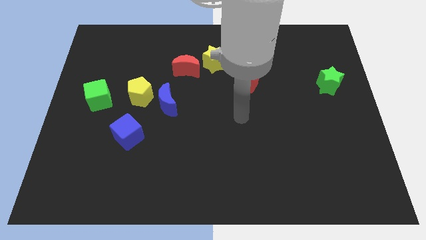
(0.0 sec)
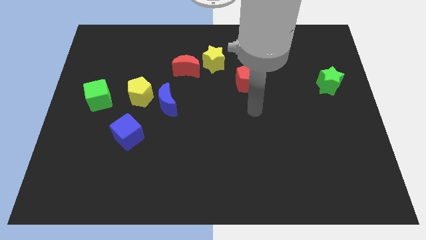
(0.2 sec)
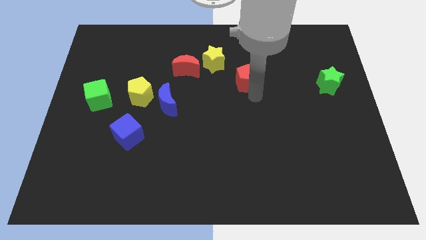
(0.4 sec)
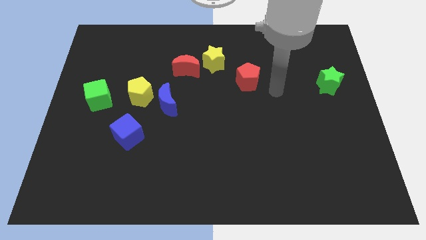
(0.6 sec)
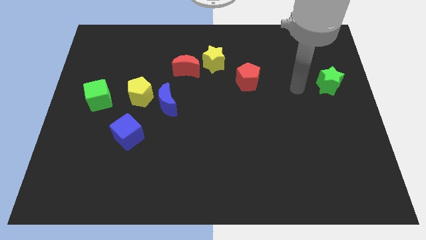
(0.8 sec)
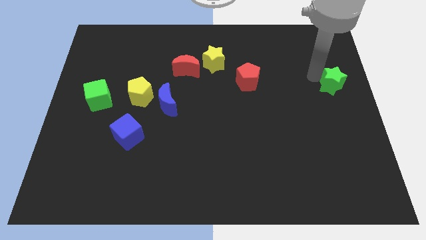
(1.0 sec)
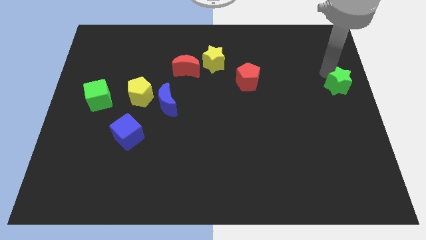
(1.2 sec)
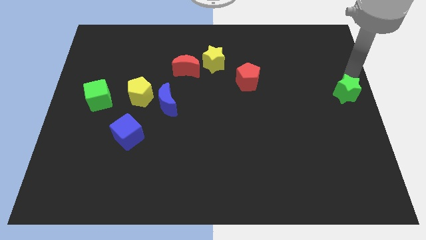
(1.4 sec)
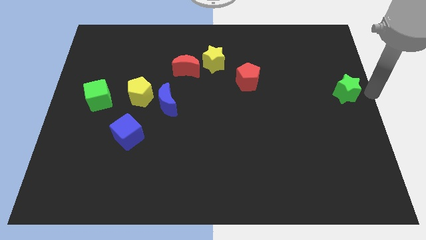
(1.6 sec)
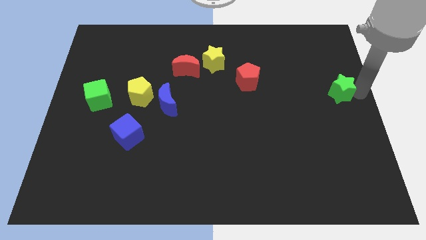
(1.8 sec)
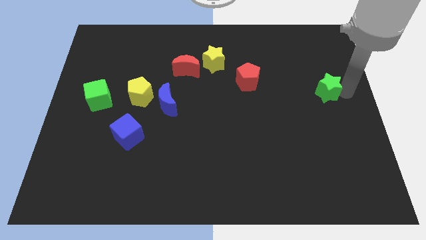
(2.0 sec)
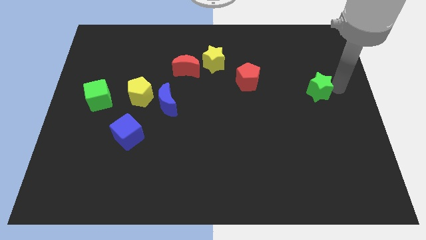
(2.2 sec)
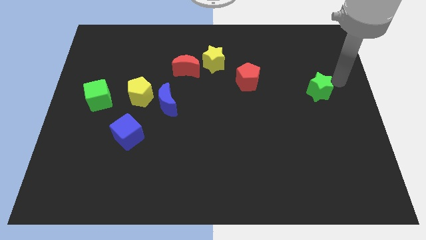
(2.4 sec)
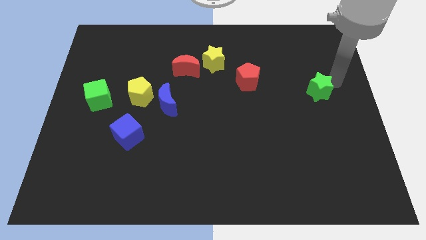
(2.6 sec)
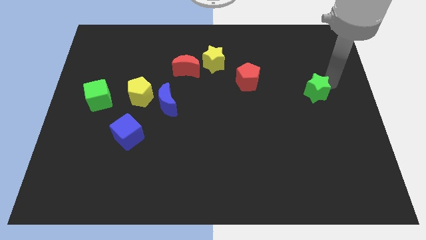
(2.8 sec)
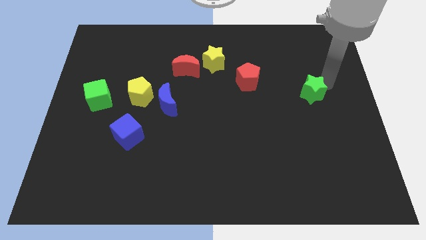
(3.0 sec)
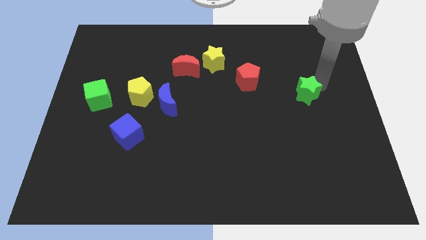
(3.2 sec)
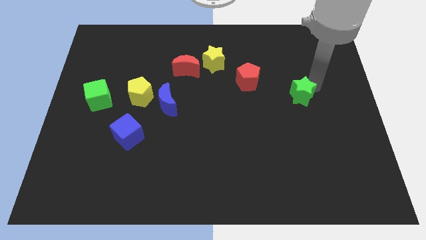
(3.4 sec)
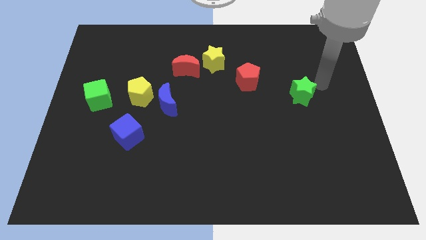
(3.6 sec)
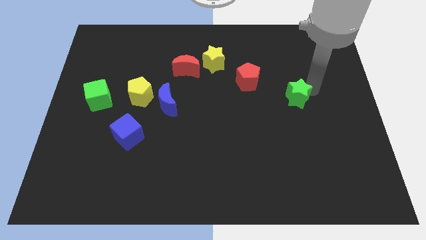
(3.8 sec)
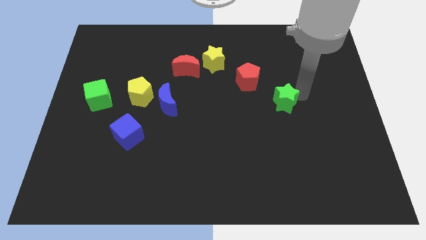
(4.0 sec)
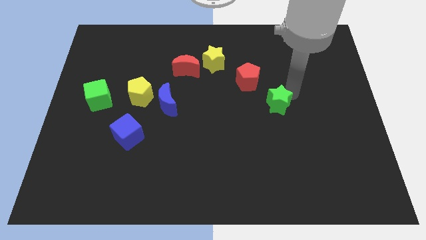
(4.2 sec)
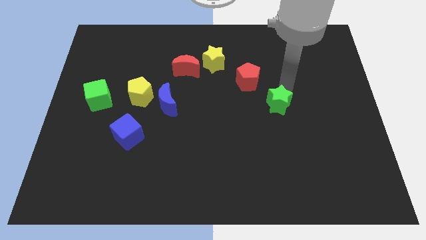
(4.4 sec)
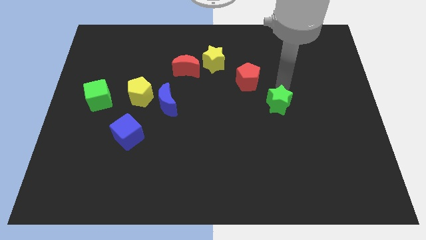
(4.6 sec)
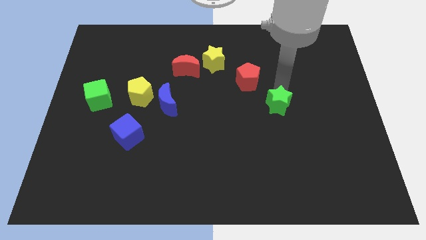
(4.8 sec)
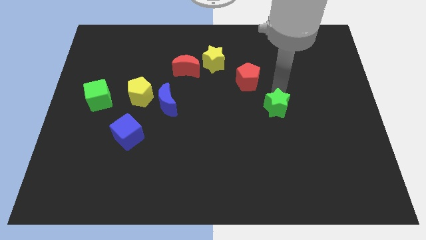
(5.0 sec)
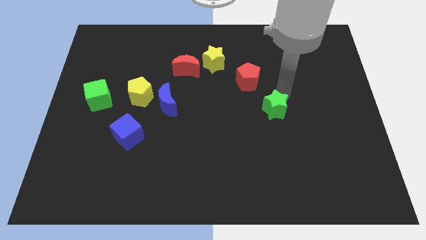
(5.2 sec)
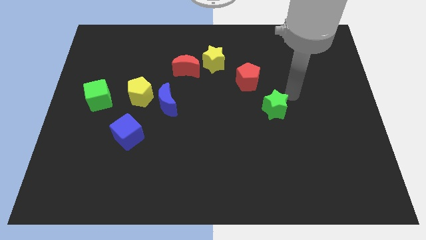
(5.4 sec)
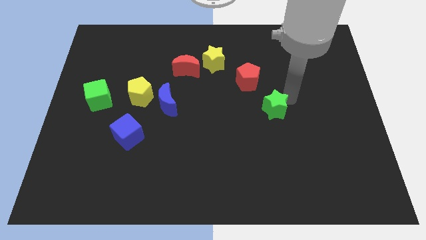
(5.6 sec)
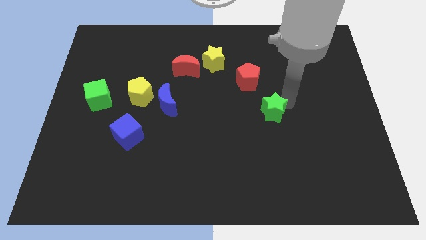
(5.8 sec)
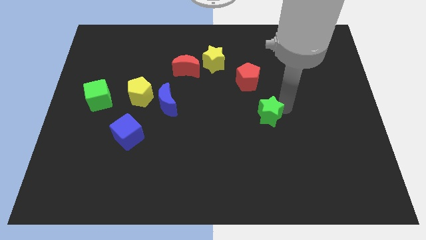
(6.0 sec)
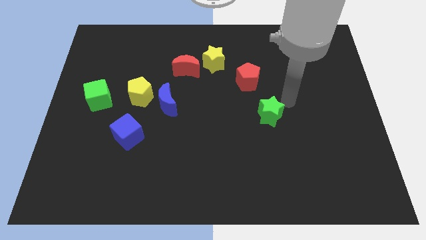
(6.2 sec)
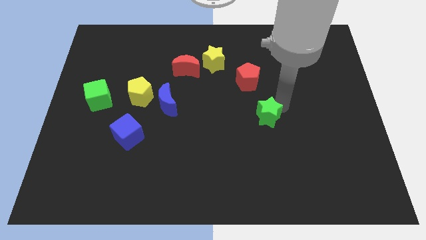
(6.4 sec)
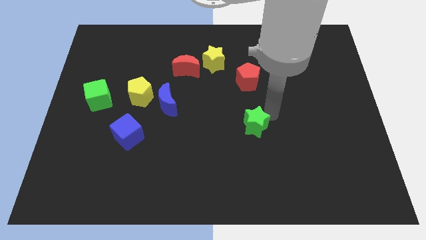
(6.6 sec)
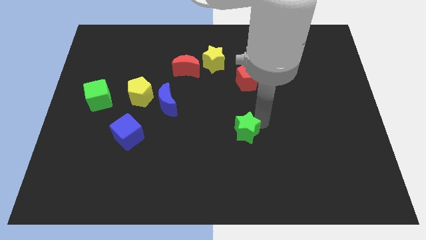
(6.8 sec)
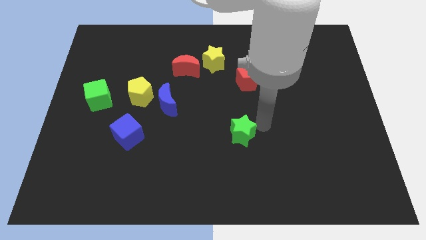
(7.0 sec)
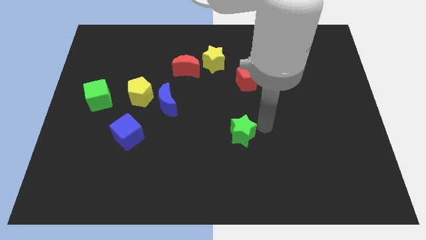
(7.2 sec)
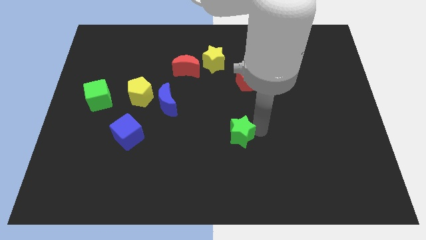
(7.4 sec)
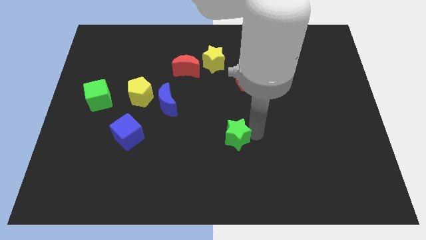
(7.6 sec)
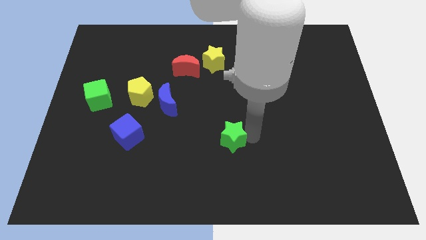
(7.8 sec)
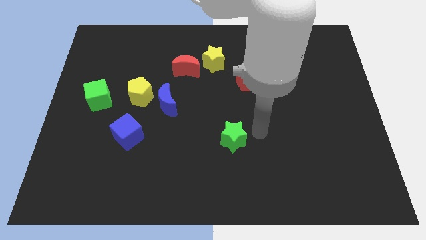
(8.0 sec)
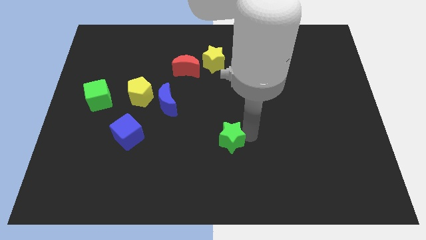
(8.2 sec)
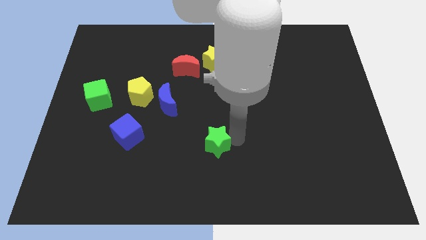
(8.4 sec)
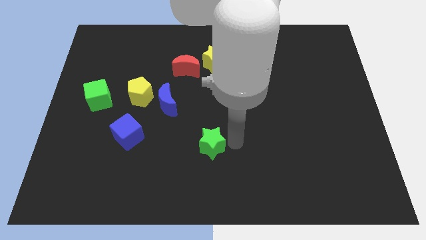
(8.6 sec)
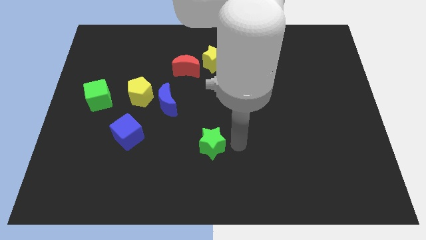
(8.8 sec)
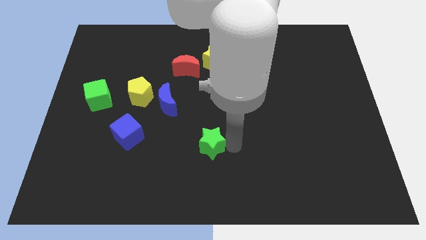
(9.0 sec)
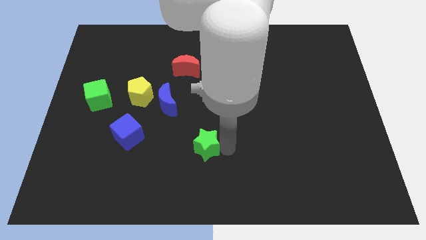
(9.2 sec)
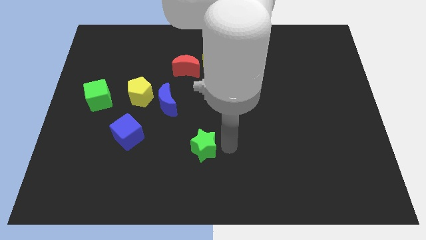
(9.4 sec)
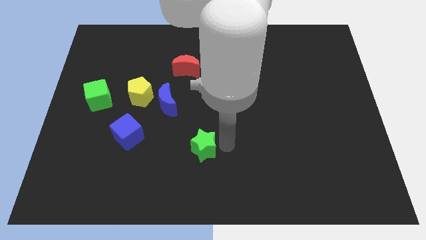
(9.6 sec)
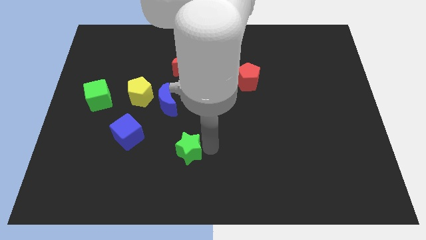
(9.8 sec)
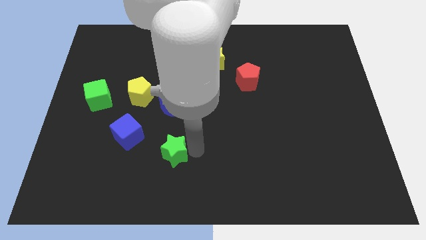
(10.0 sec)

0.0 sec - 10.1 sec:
move the green star to the bottom right side of the blue cube

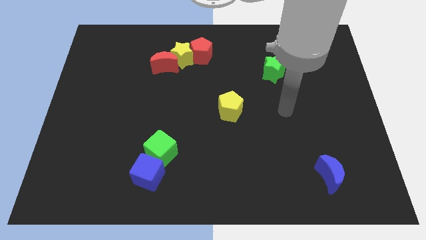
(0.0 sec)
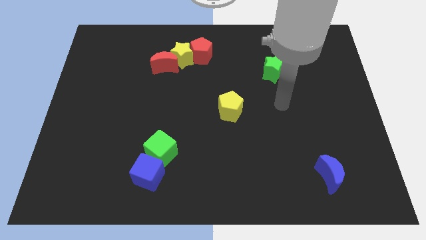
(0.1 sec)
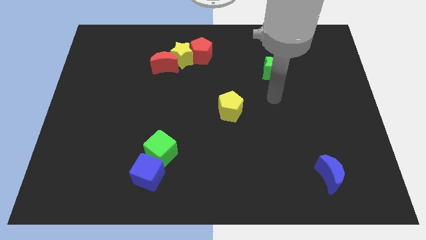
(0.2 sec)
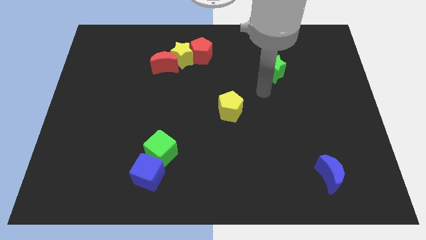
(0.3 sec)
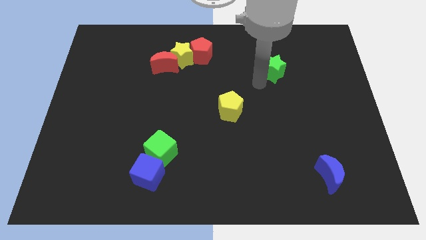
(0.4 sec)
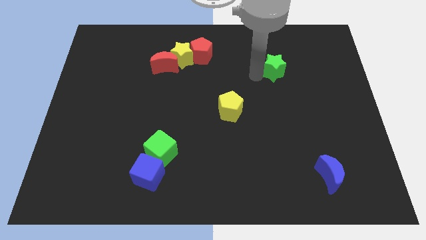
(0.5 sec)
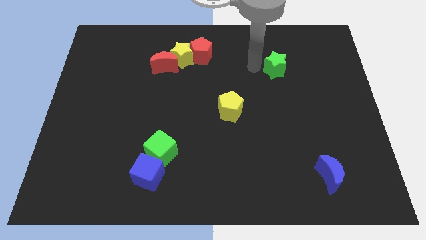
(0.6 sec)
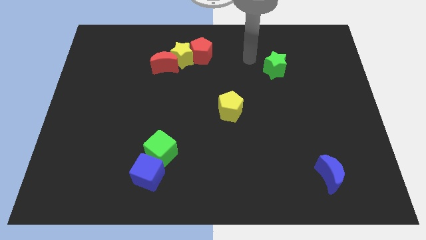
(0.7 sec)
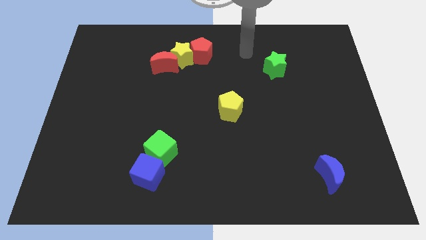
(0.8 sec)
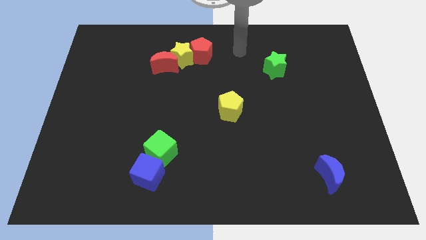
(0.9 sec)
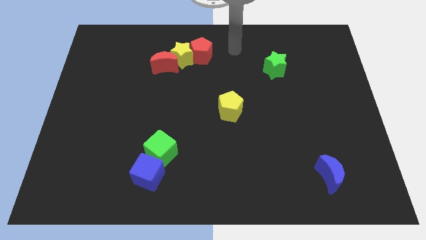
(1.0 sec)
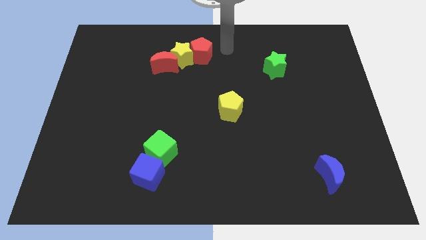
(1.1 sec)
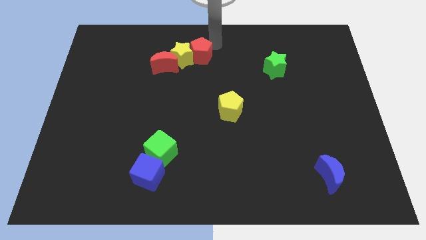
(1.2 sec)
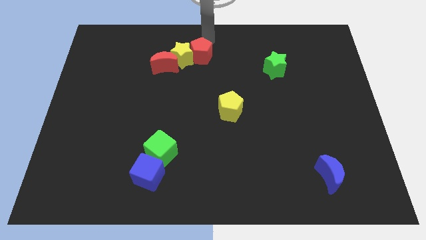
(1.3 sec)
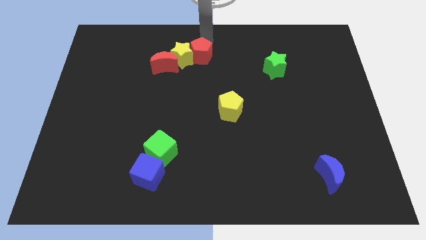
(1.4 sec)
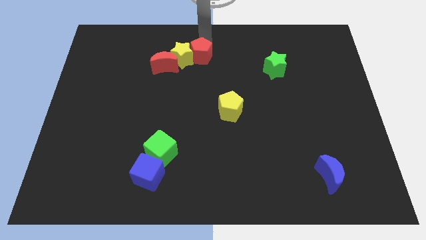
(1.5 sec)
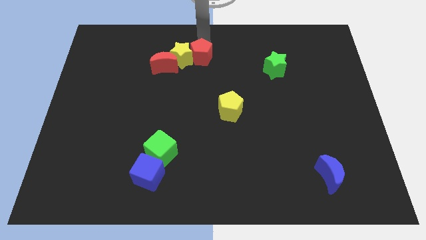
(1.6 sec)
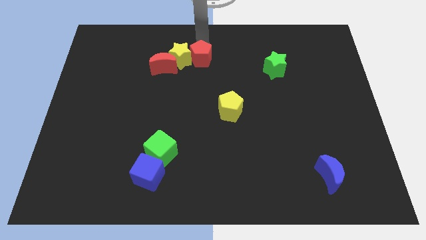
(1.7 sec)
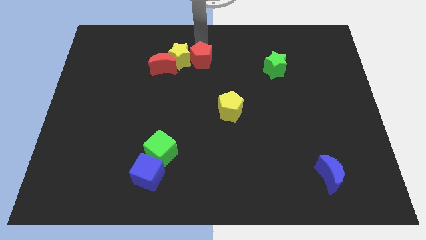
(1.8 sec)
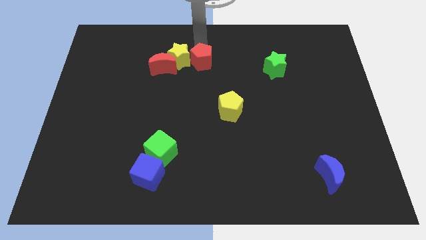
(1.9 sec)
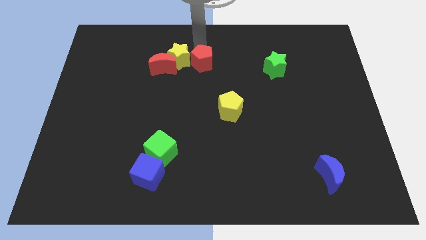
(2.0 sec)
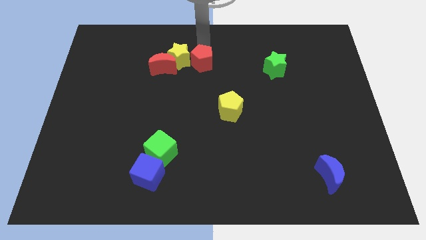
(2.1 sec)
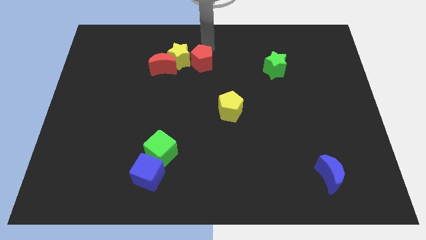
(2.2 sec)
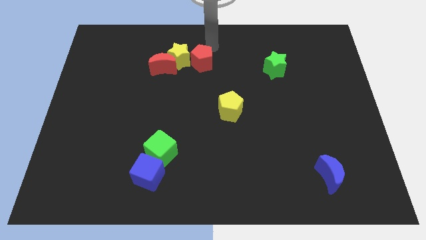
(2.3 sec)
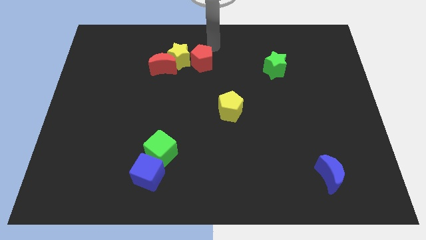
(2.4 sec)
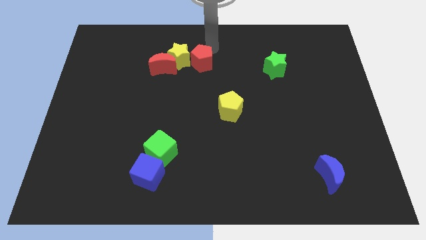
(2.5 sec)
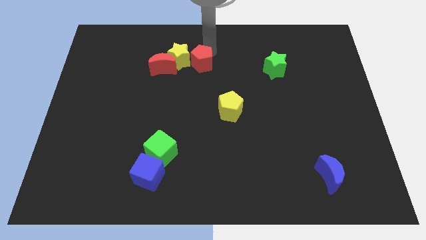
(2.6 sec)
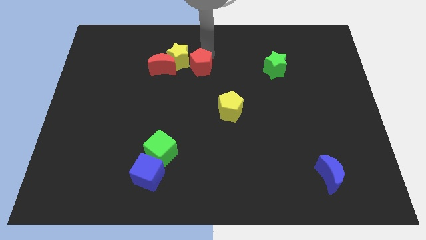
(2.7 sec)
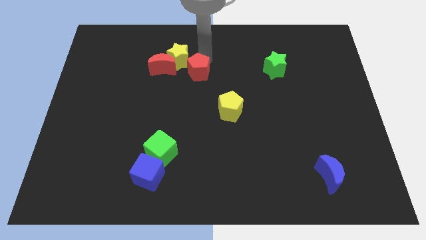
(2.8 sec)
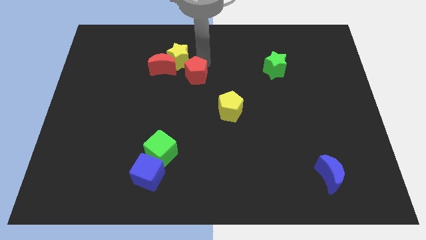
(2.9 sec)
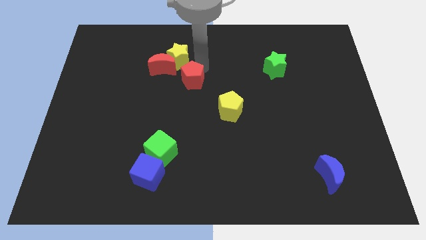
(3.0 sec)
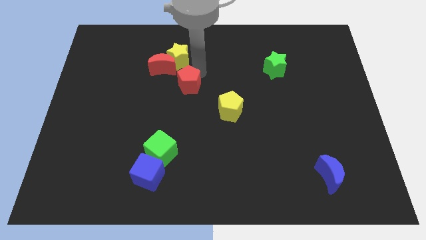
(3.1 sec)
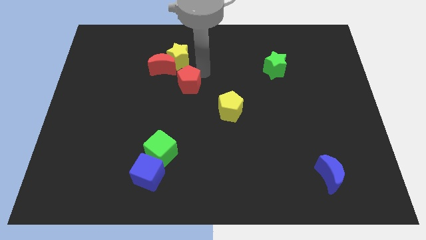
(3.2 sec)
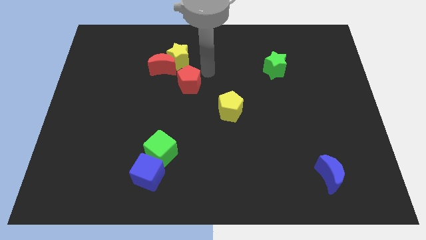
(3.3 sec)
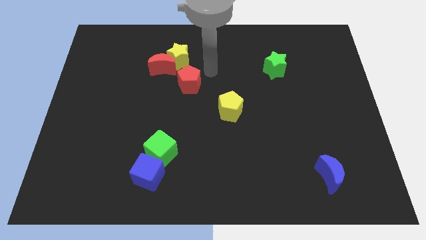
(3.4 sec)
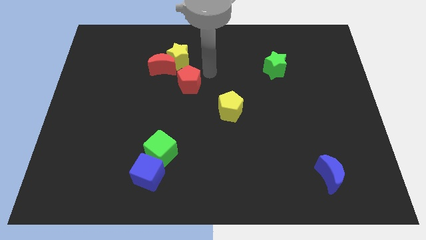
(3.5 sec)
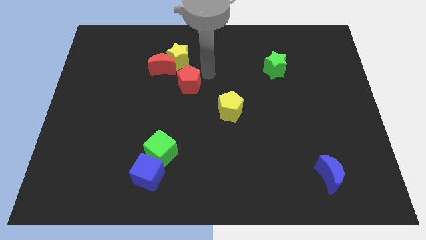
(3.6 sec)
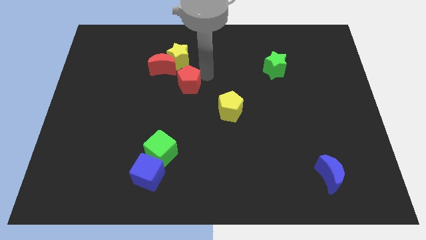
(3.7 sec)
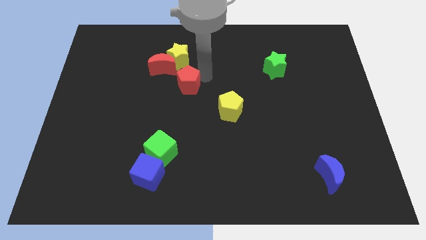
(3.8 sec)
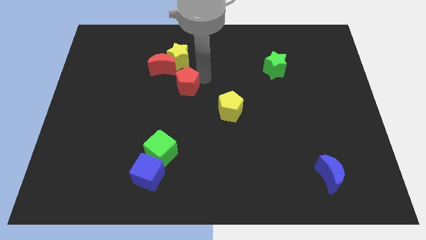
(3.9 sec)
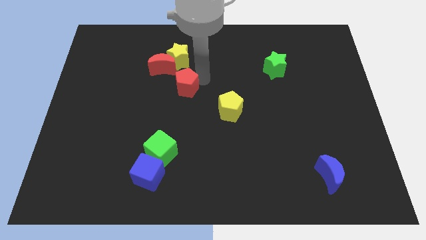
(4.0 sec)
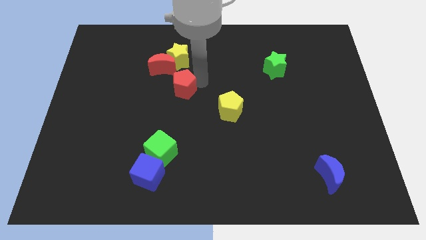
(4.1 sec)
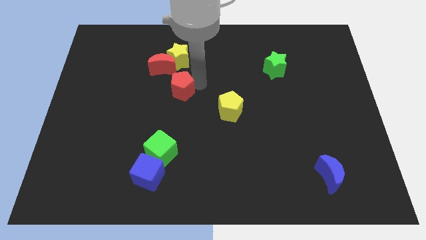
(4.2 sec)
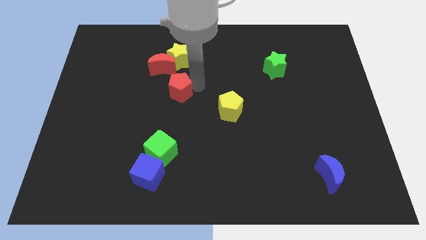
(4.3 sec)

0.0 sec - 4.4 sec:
put the red pentagon below the red moon
